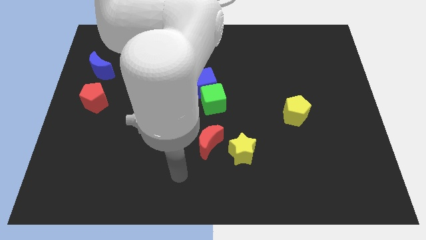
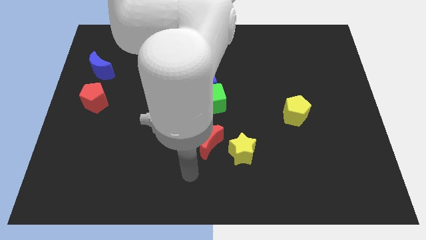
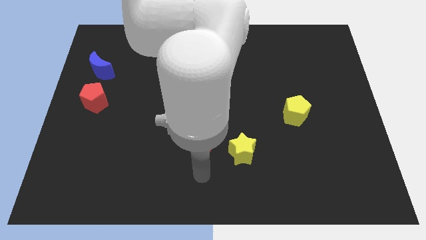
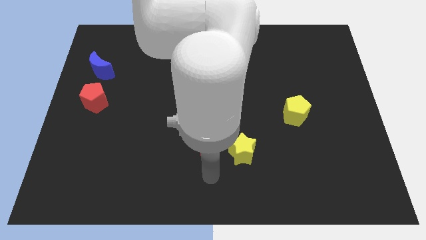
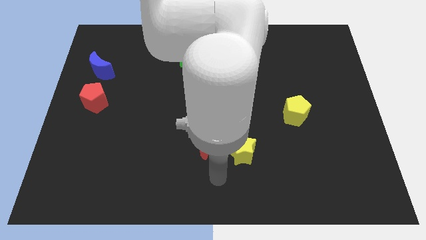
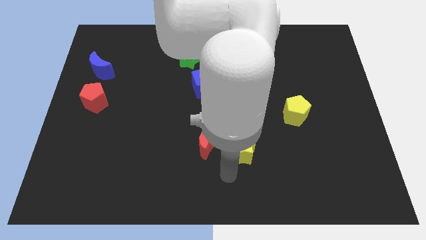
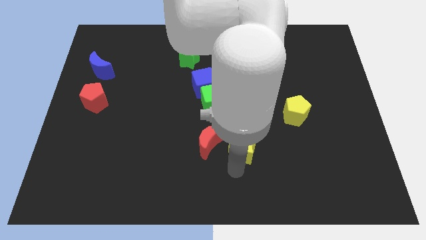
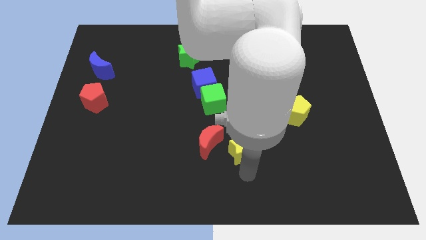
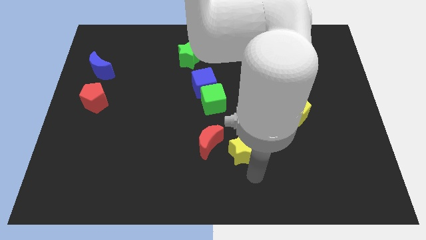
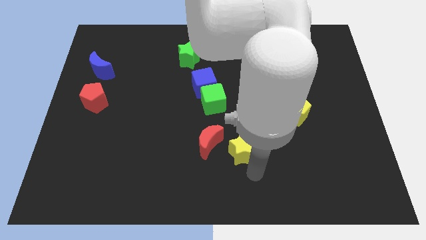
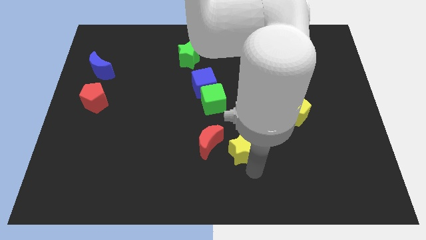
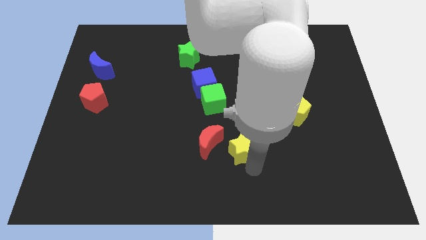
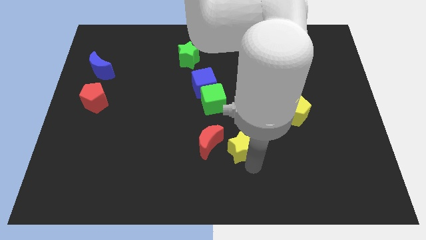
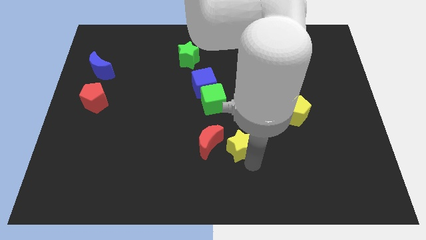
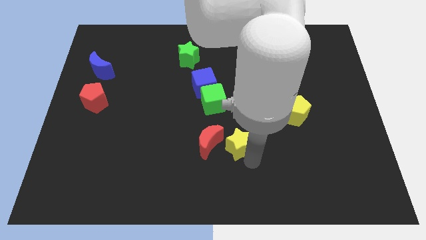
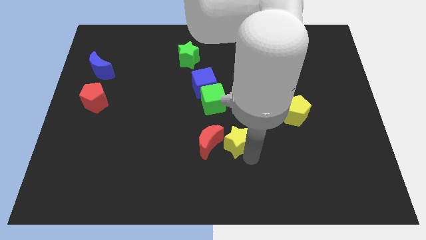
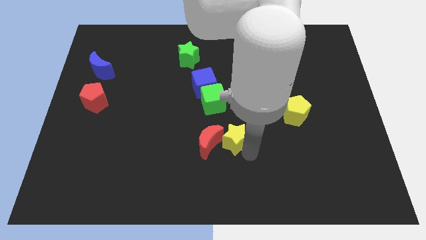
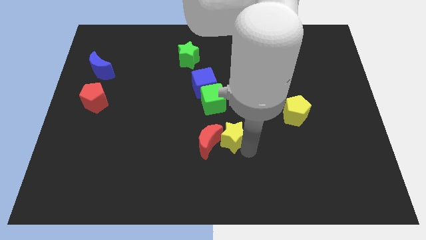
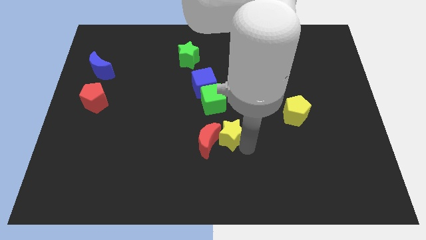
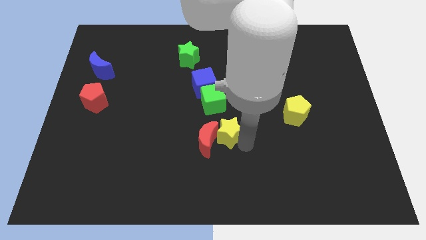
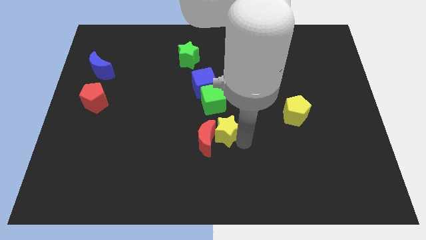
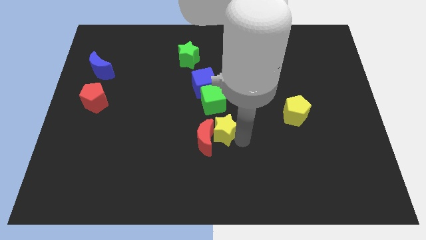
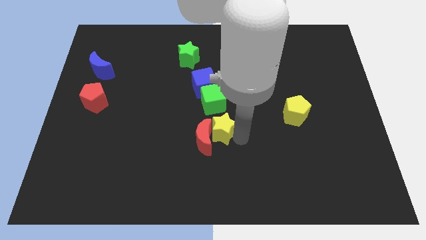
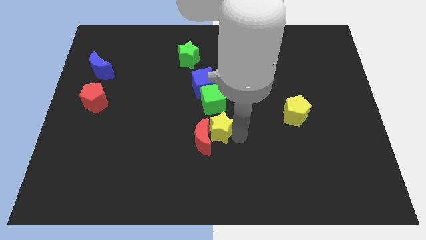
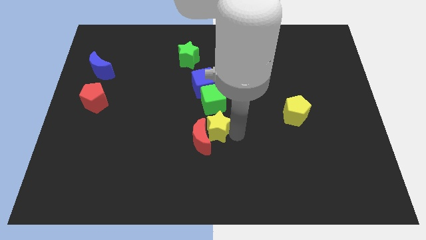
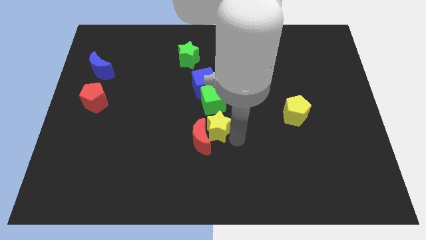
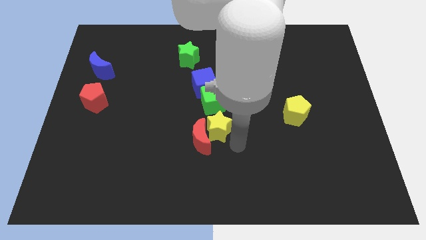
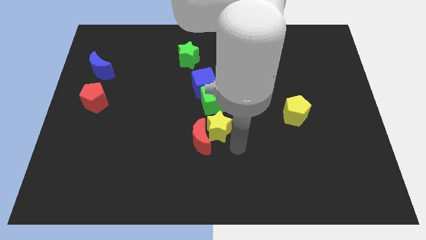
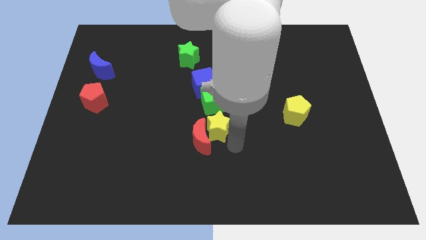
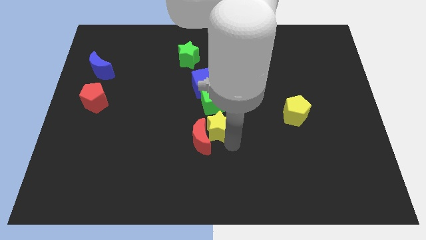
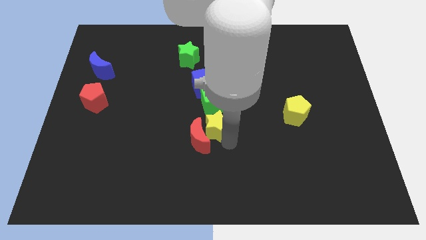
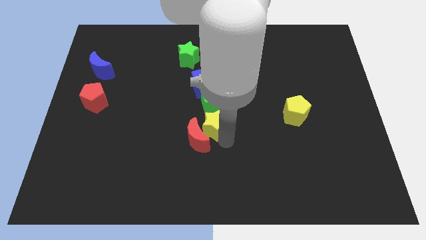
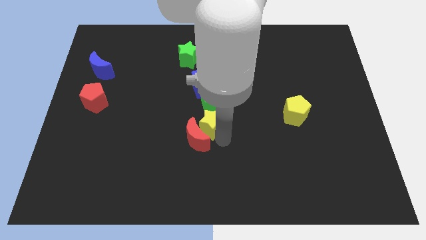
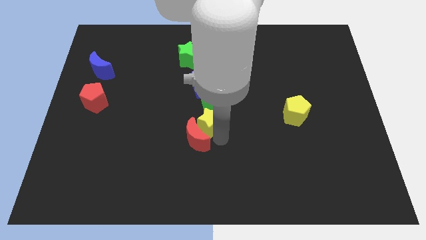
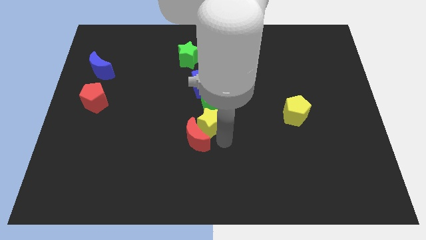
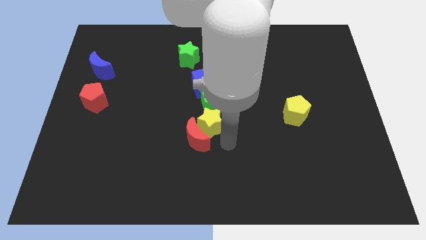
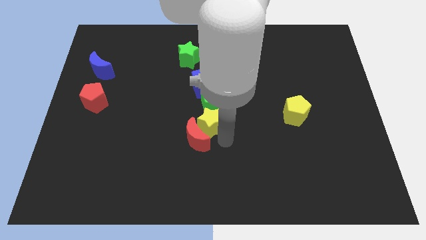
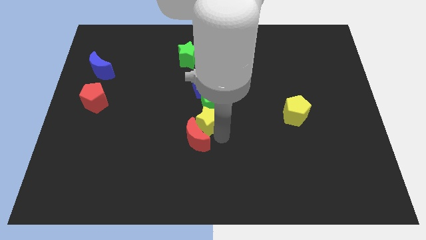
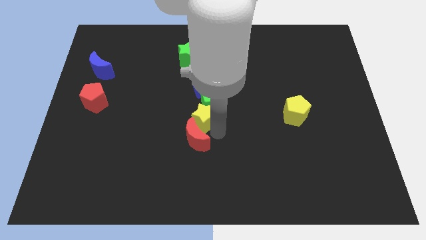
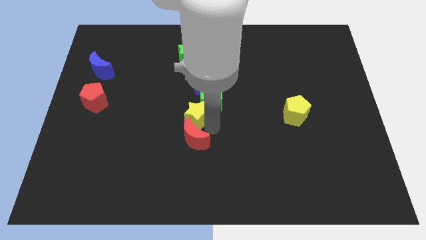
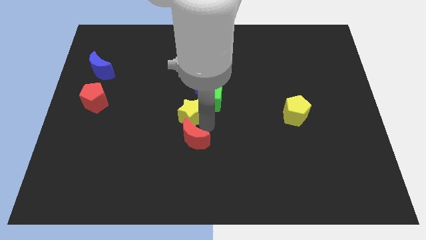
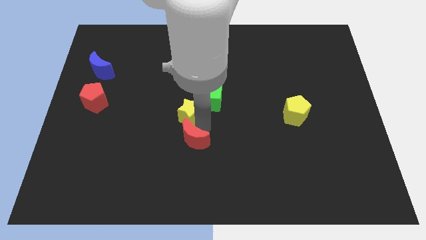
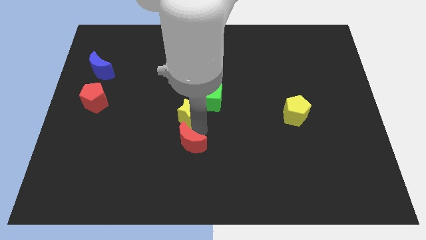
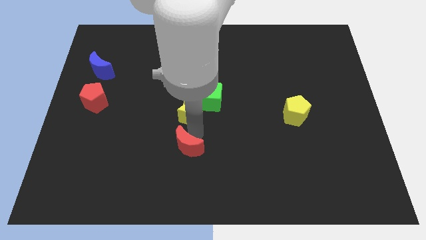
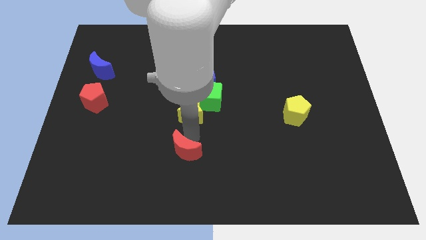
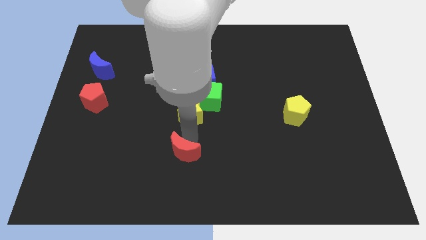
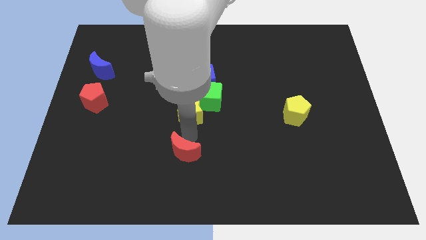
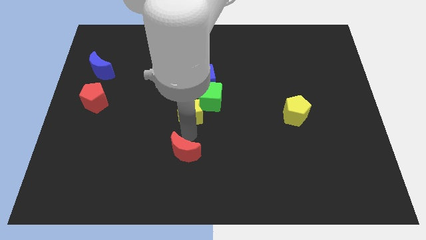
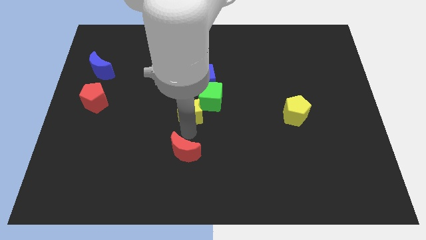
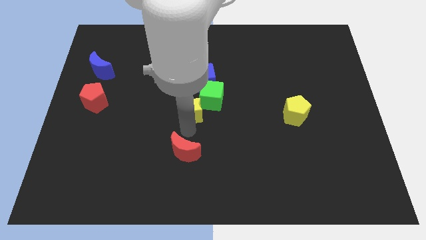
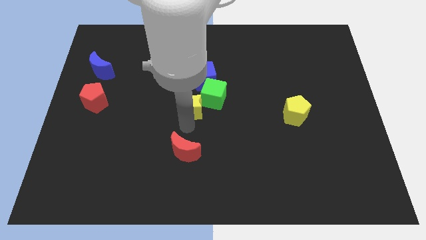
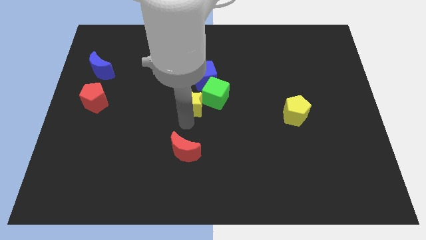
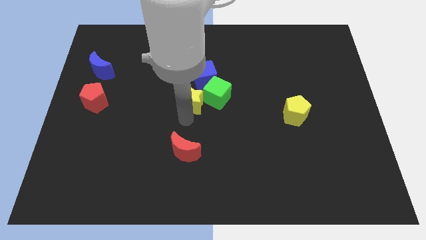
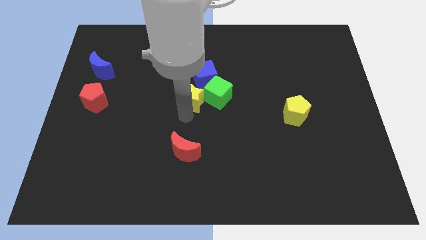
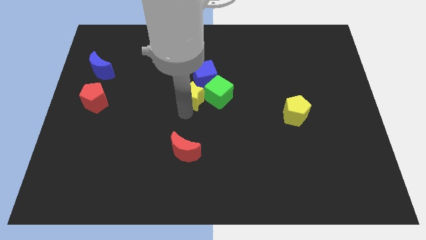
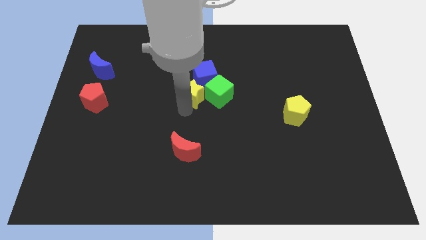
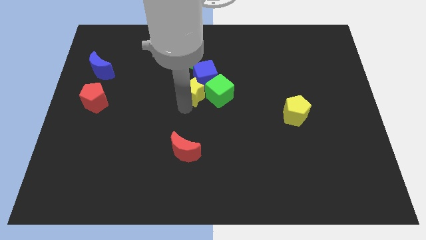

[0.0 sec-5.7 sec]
move the yellow star next to the blue cube

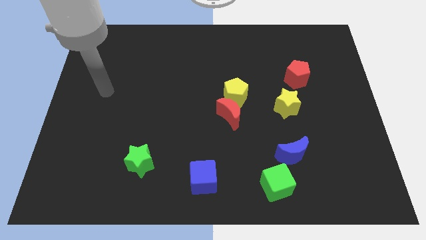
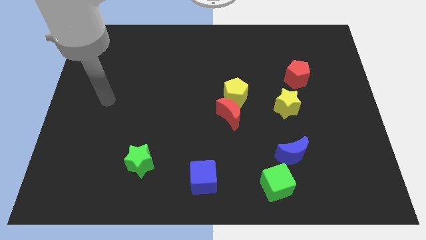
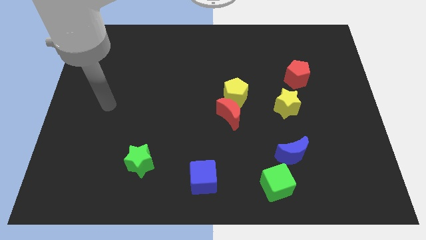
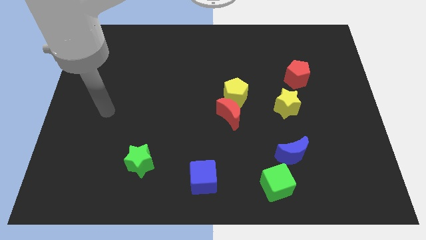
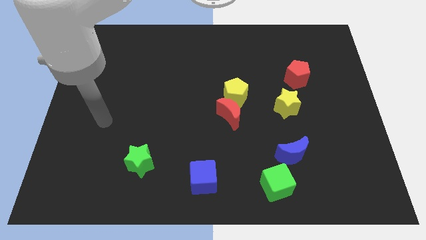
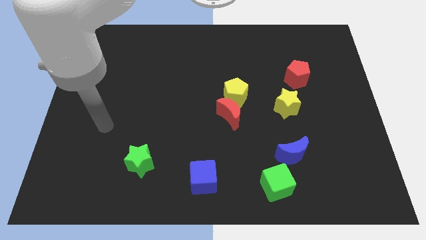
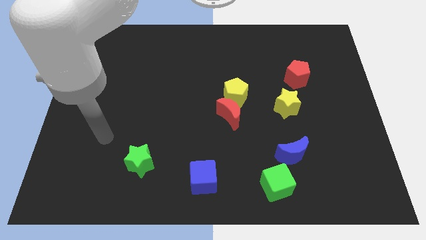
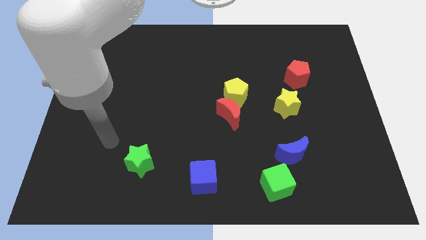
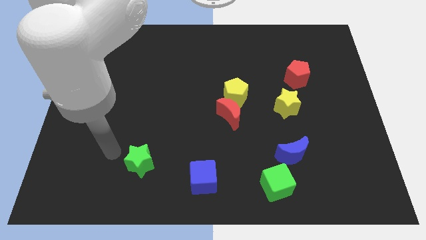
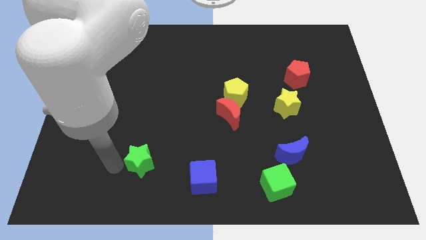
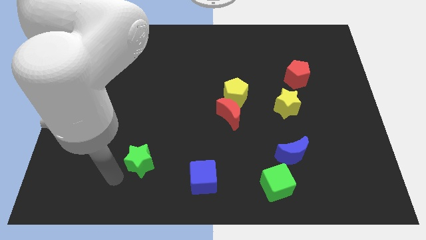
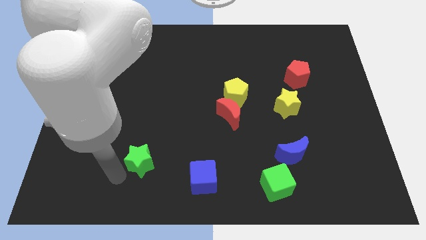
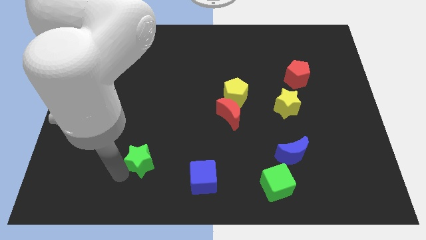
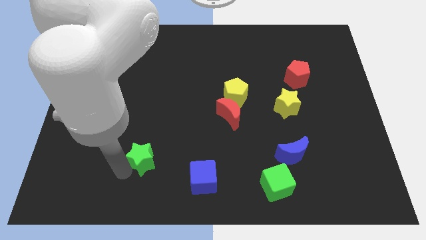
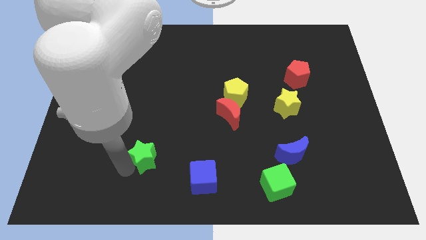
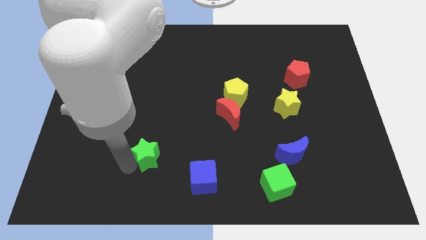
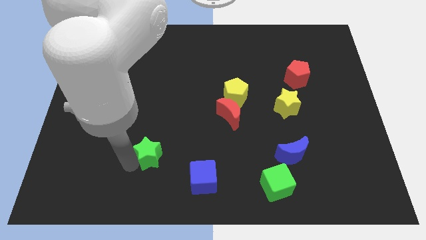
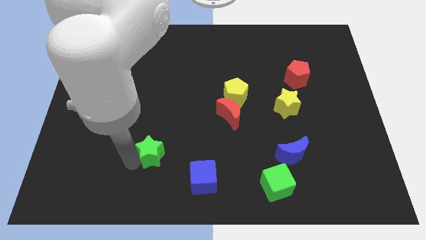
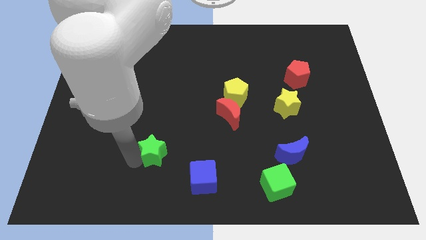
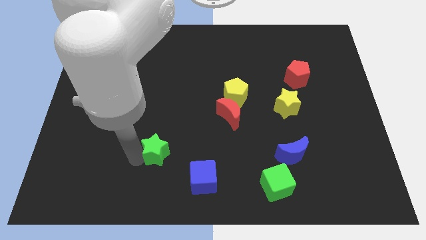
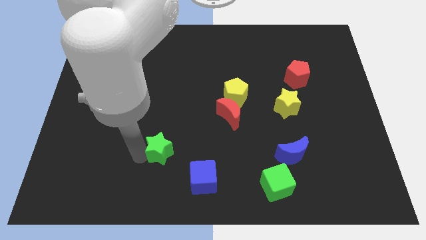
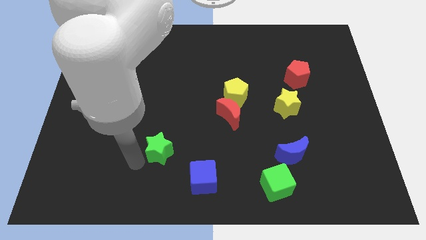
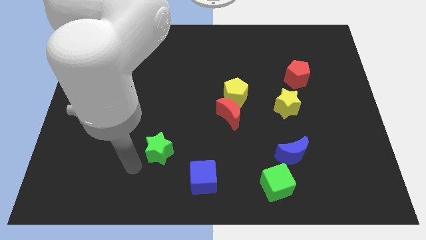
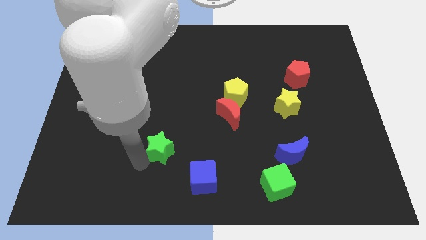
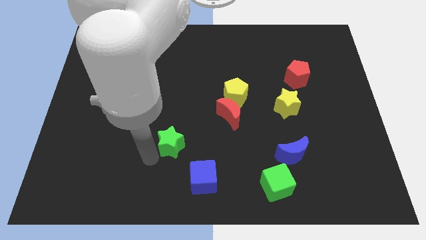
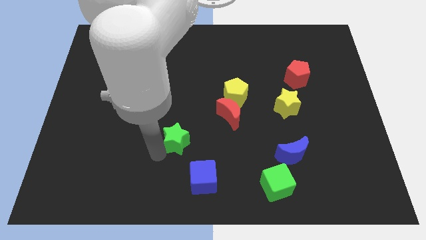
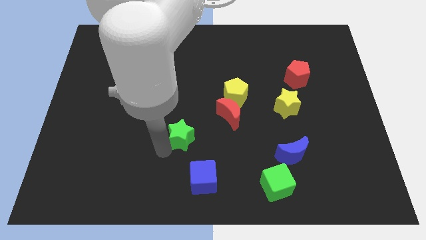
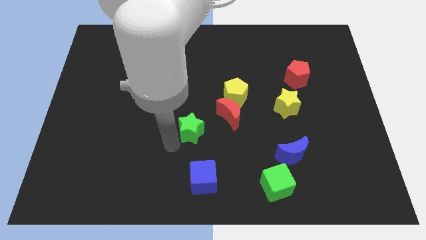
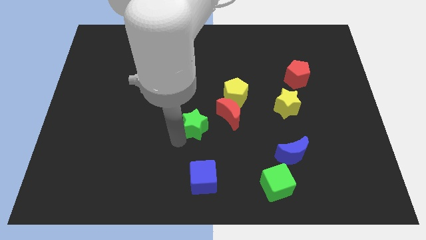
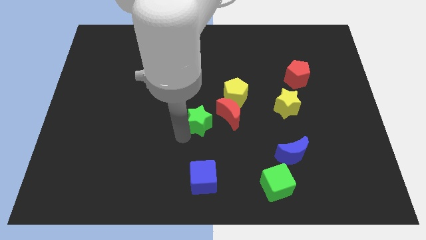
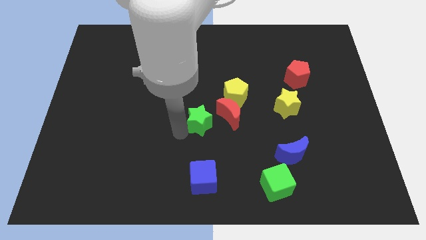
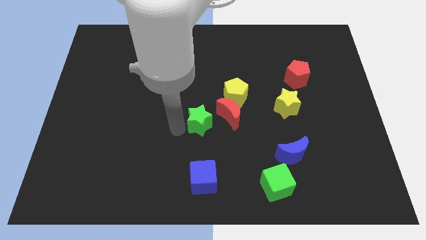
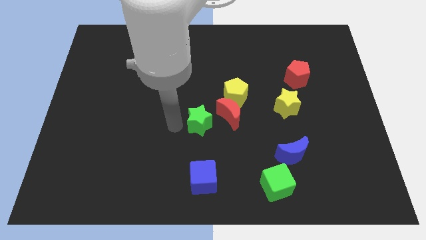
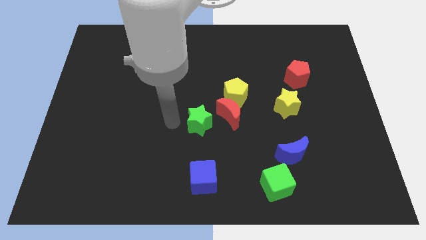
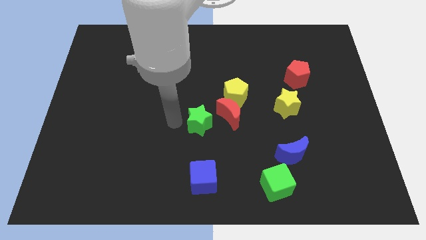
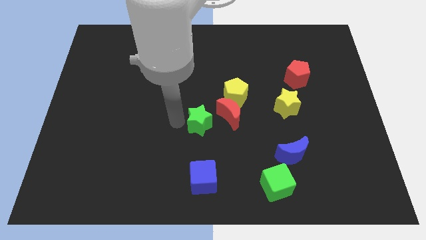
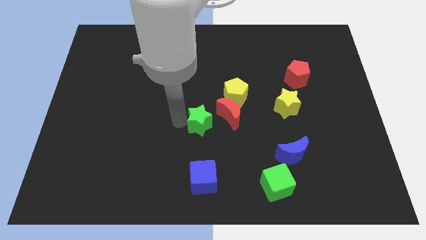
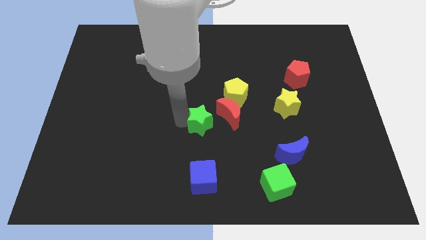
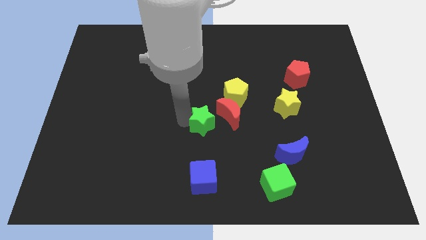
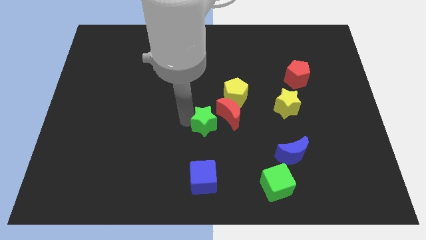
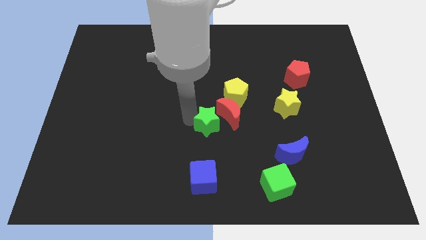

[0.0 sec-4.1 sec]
push the green star to the red moon
